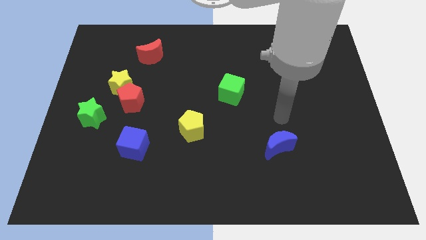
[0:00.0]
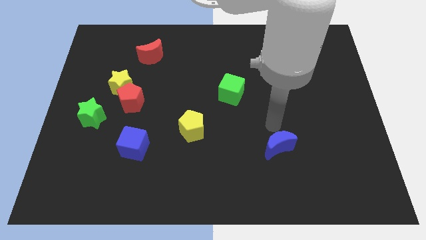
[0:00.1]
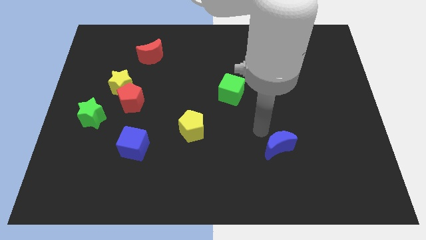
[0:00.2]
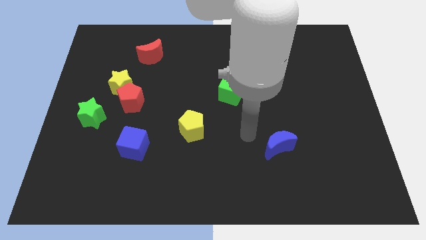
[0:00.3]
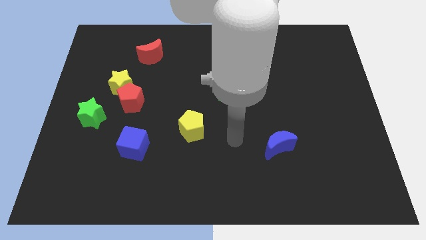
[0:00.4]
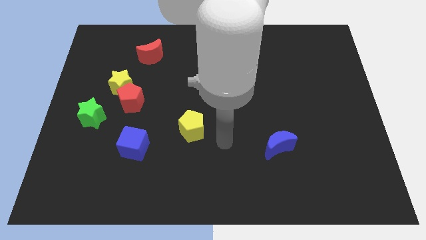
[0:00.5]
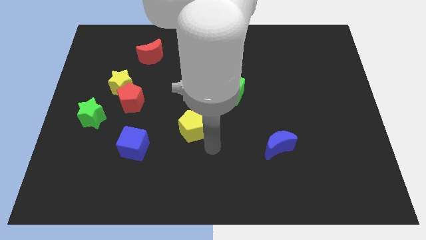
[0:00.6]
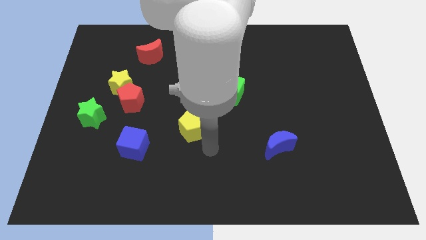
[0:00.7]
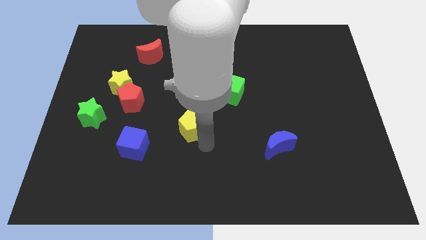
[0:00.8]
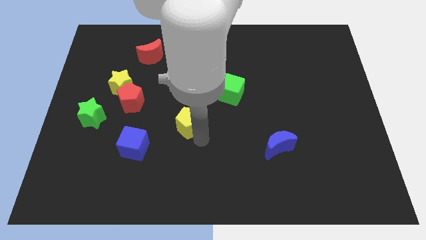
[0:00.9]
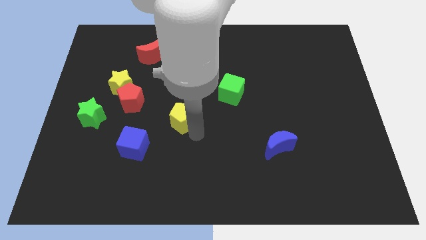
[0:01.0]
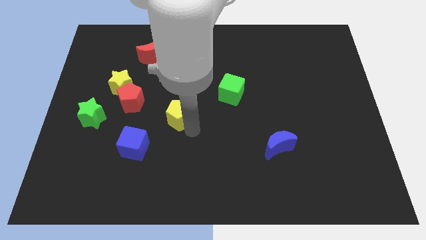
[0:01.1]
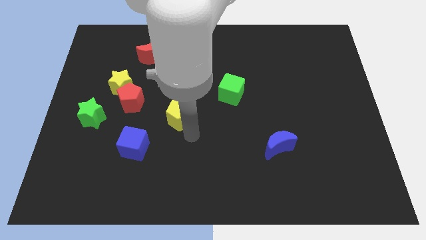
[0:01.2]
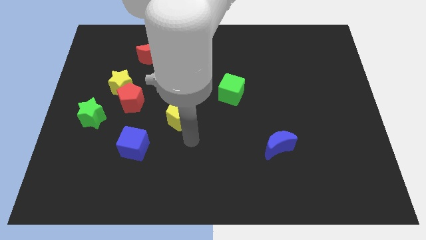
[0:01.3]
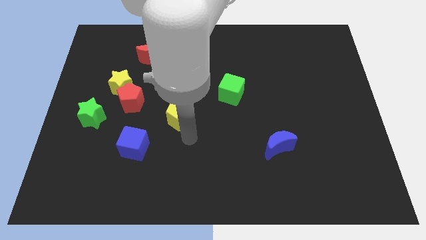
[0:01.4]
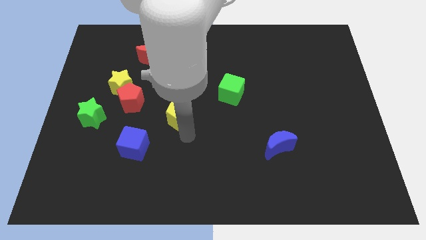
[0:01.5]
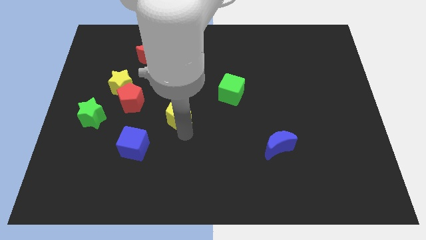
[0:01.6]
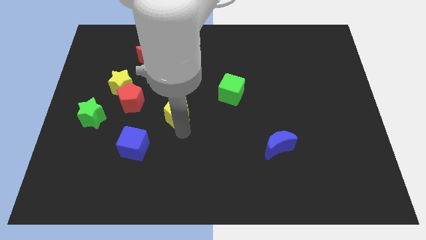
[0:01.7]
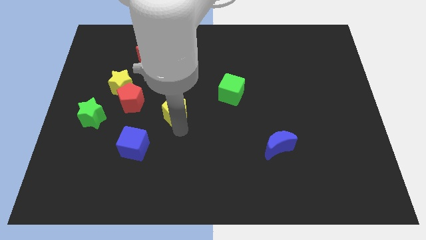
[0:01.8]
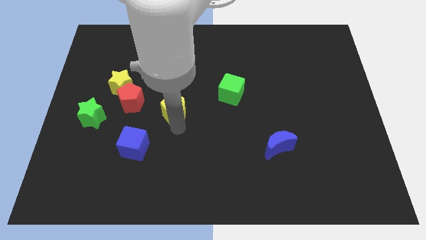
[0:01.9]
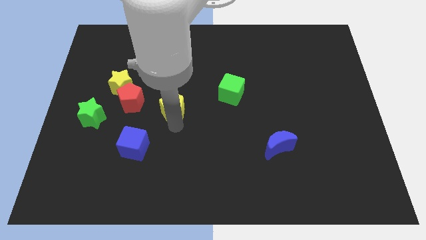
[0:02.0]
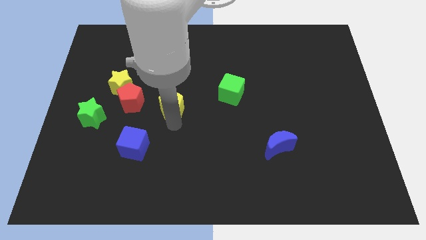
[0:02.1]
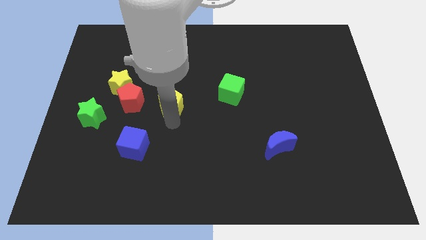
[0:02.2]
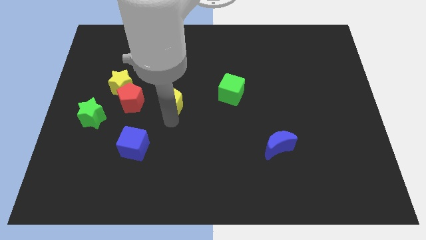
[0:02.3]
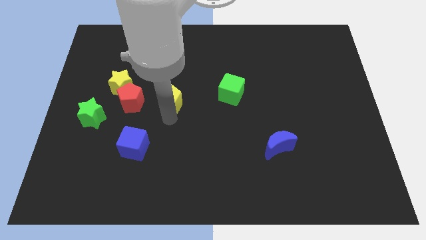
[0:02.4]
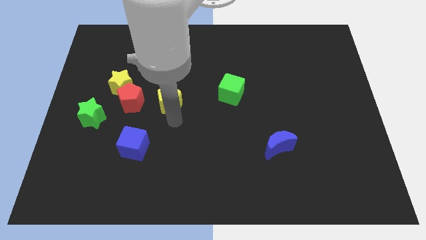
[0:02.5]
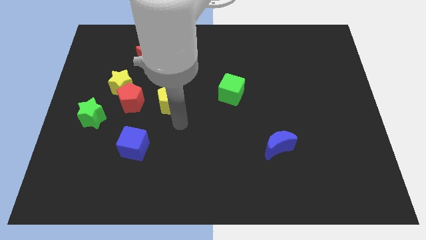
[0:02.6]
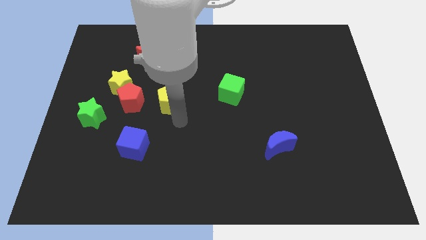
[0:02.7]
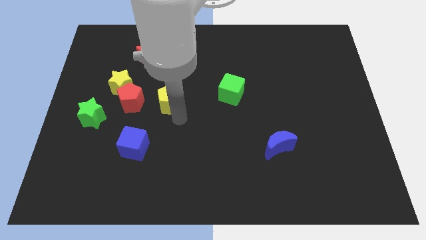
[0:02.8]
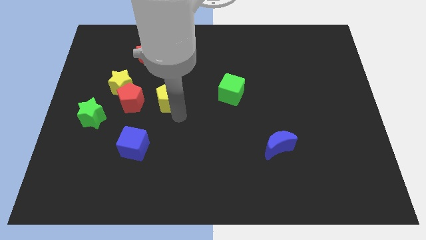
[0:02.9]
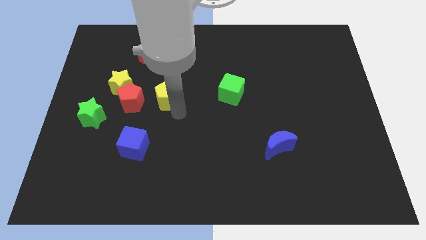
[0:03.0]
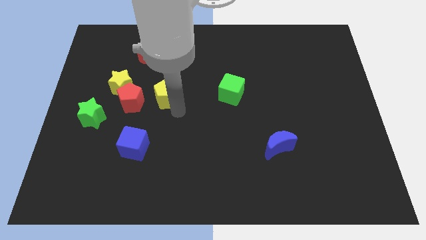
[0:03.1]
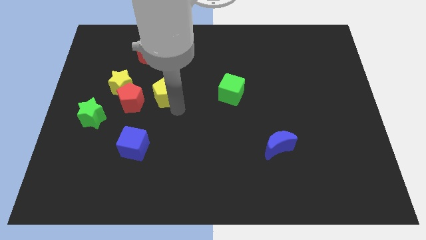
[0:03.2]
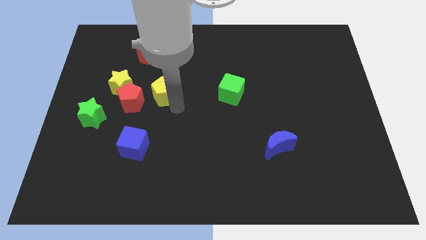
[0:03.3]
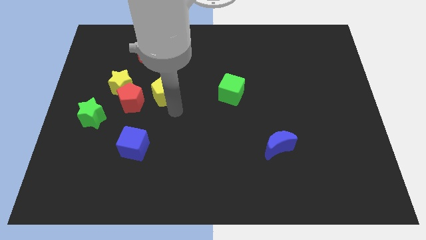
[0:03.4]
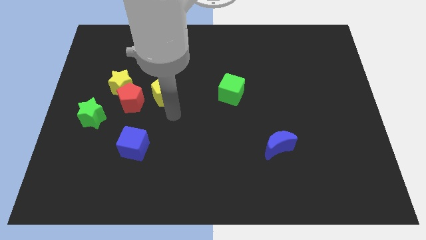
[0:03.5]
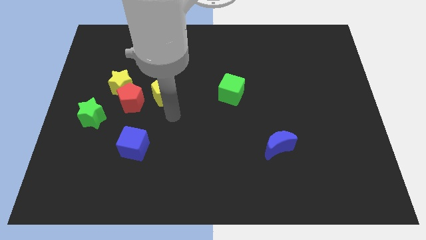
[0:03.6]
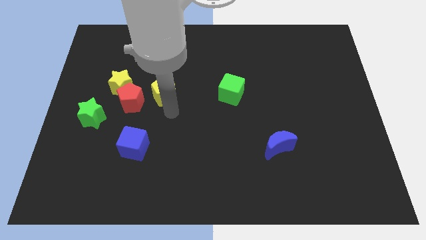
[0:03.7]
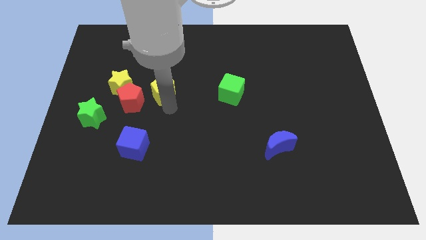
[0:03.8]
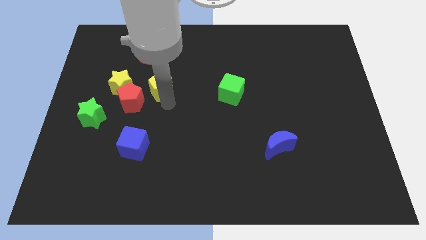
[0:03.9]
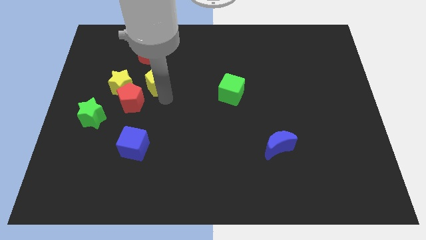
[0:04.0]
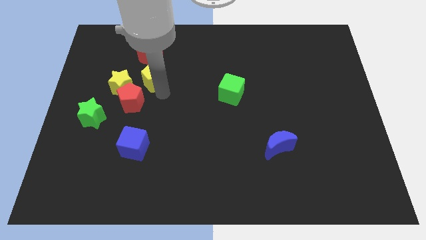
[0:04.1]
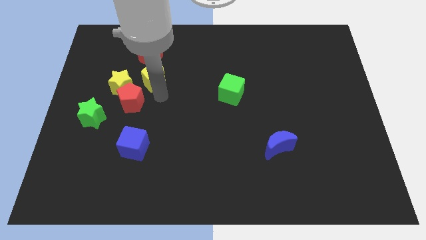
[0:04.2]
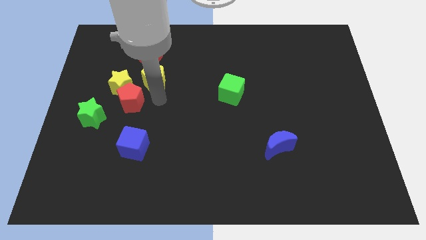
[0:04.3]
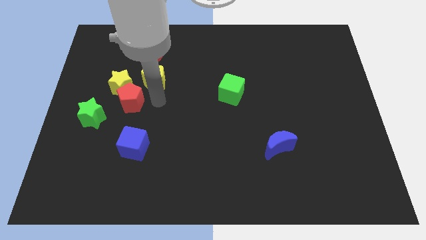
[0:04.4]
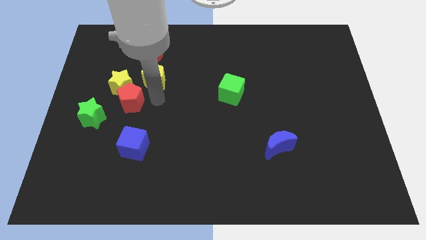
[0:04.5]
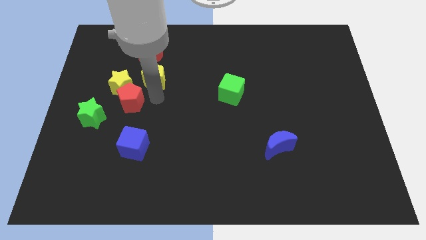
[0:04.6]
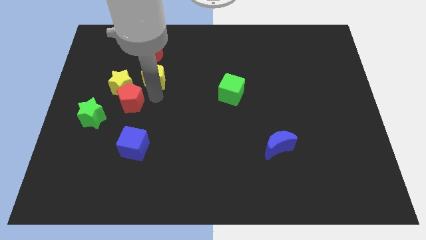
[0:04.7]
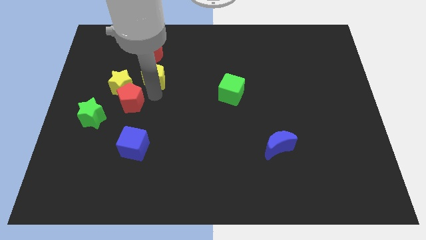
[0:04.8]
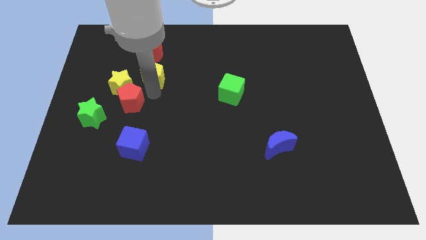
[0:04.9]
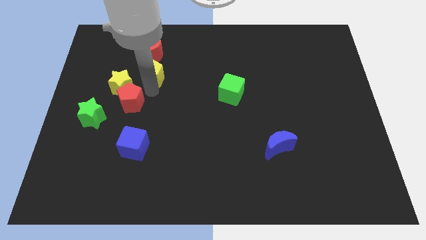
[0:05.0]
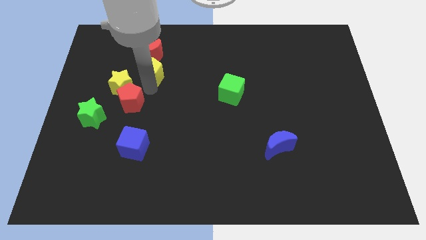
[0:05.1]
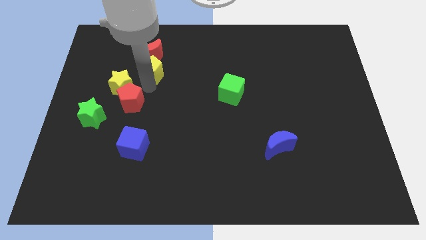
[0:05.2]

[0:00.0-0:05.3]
put the yellow pentagon next to the red moon
